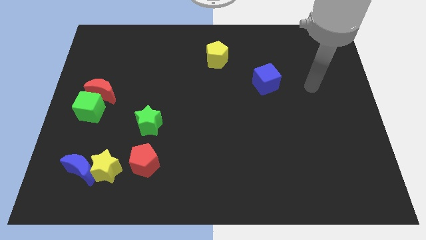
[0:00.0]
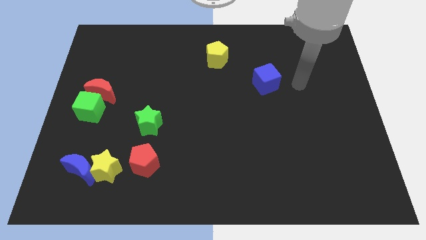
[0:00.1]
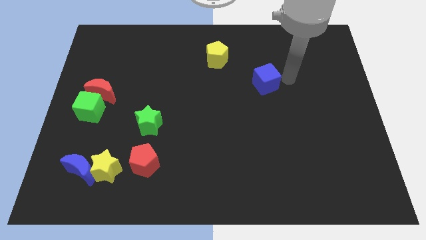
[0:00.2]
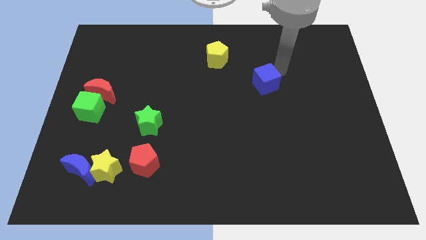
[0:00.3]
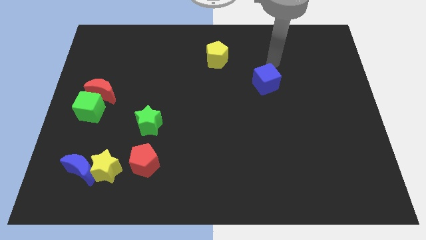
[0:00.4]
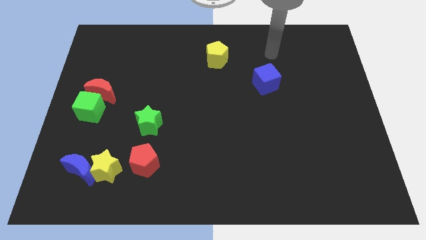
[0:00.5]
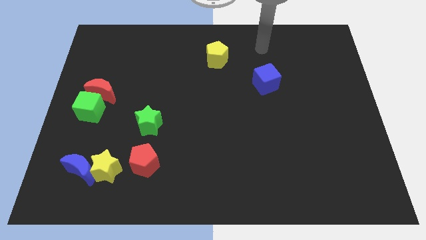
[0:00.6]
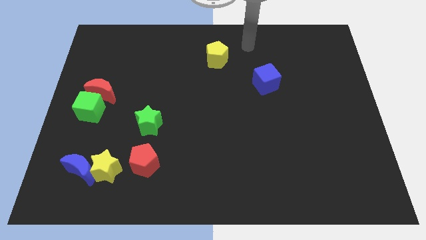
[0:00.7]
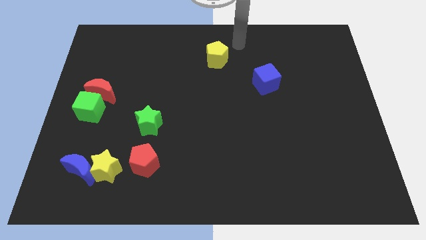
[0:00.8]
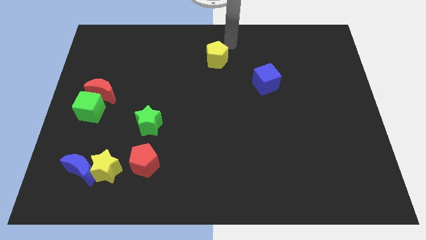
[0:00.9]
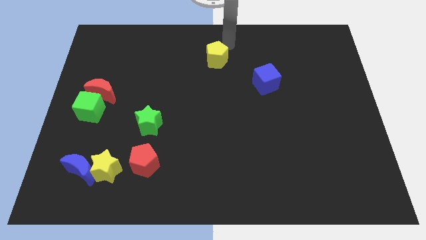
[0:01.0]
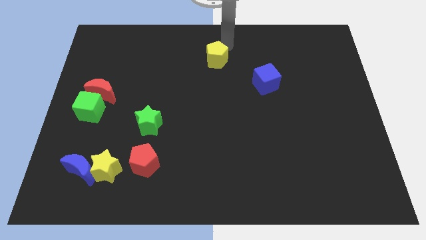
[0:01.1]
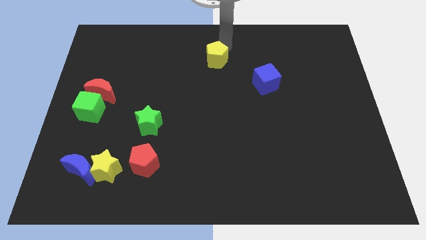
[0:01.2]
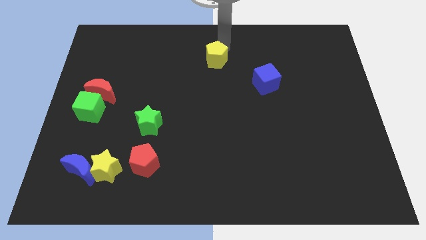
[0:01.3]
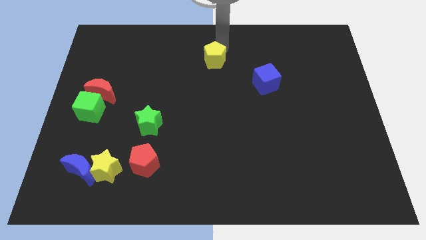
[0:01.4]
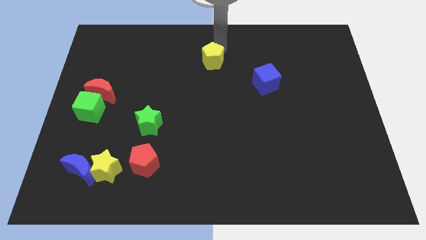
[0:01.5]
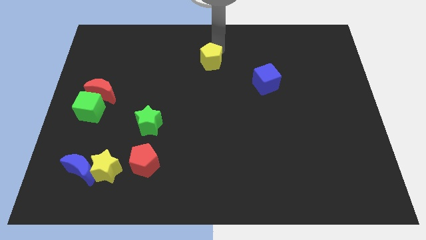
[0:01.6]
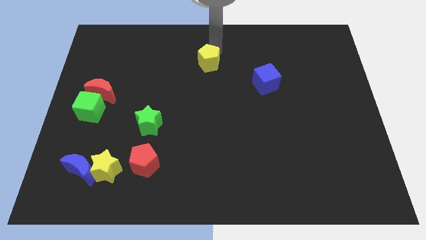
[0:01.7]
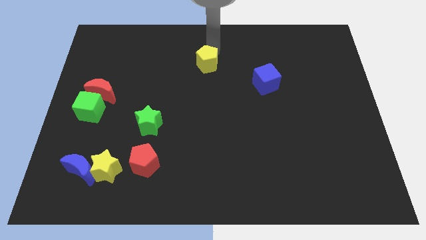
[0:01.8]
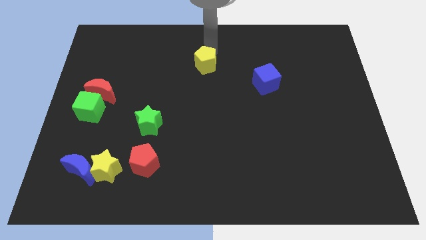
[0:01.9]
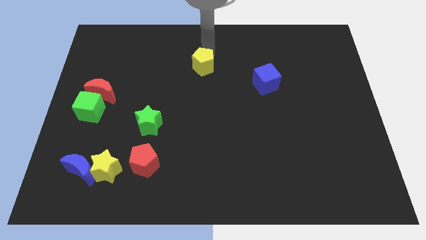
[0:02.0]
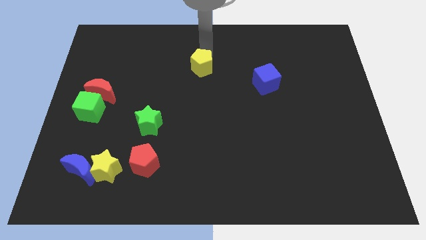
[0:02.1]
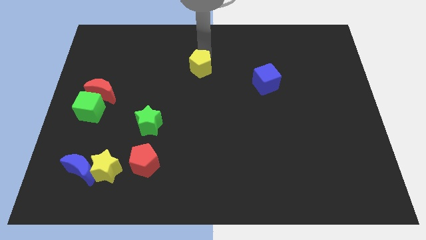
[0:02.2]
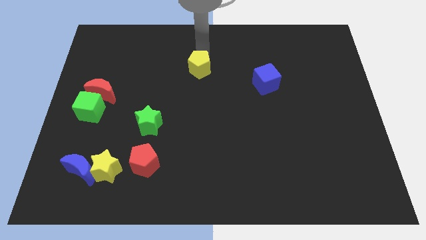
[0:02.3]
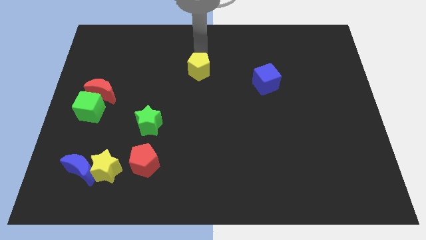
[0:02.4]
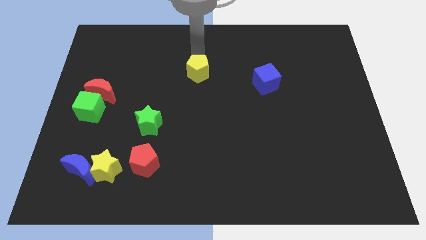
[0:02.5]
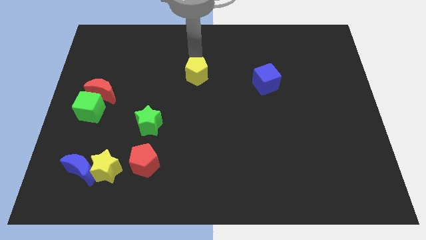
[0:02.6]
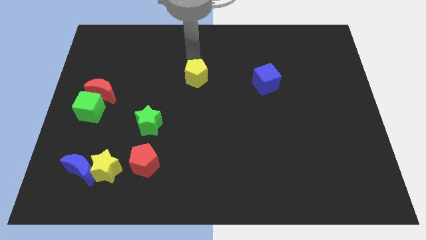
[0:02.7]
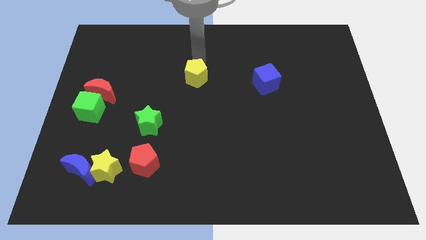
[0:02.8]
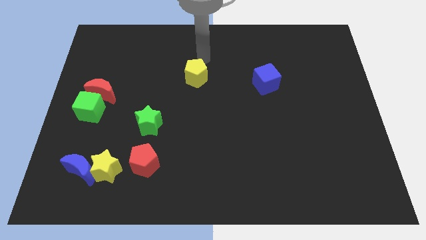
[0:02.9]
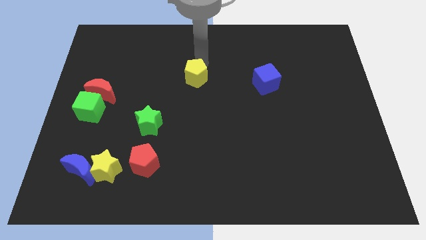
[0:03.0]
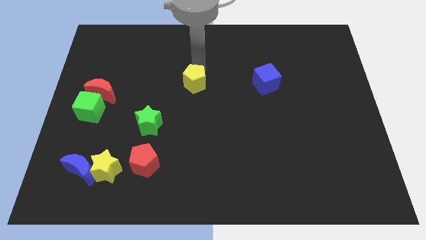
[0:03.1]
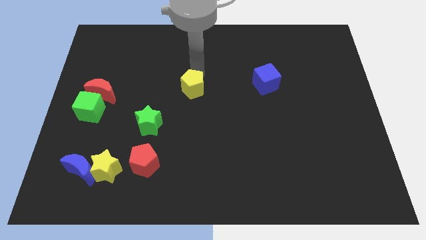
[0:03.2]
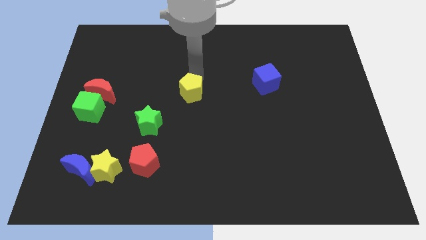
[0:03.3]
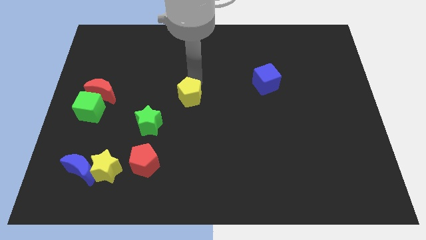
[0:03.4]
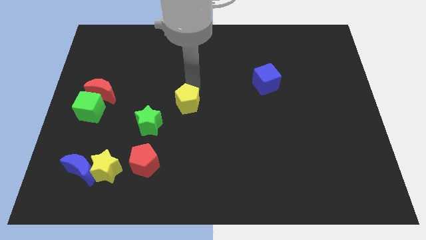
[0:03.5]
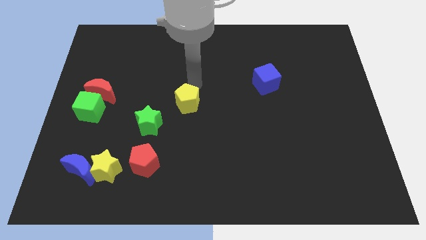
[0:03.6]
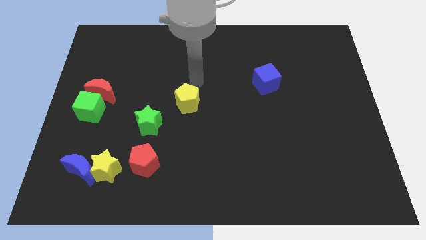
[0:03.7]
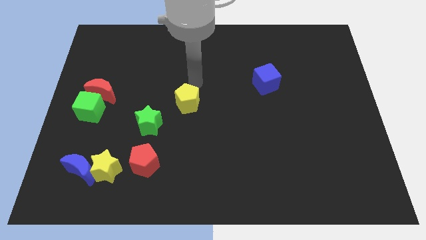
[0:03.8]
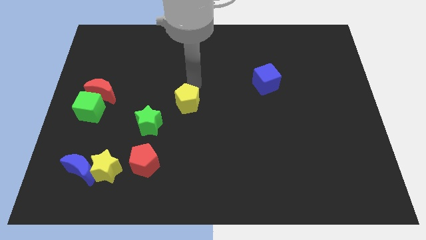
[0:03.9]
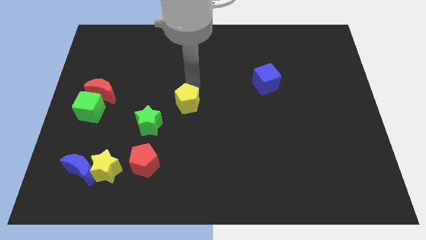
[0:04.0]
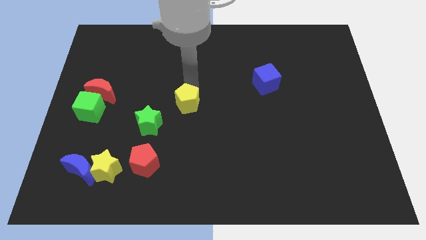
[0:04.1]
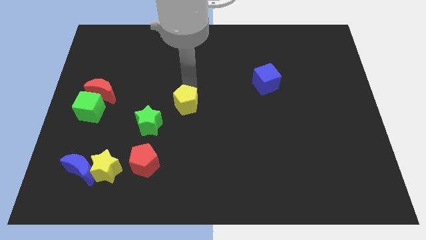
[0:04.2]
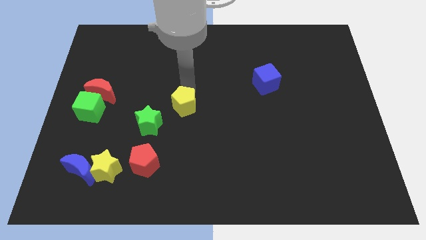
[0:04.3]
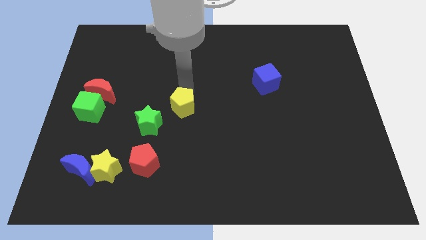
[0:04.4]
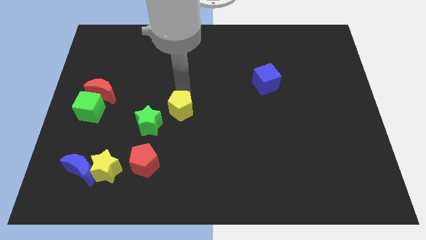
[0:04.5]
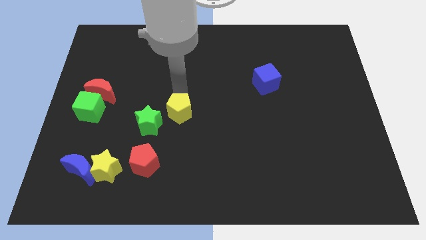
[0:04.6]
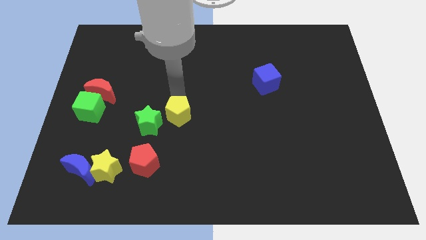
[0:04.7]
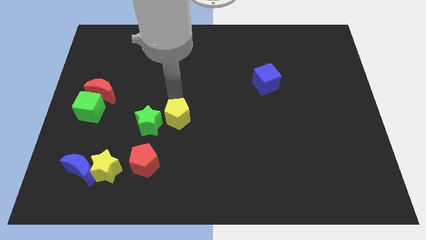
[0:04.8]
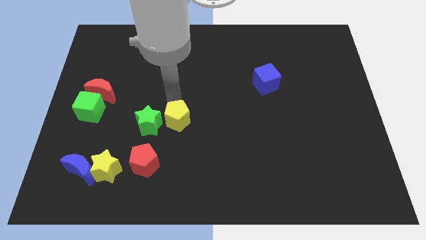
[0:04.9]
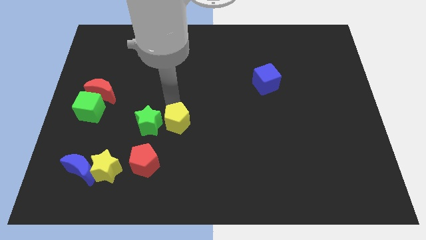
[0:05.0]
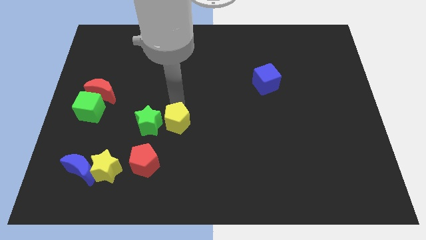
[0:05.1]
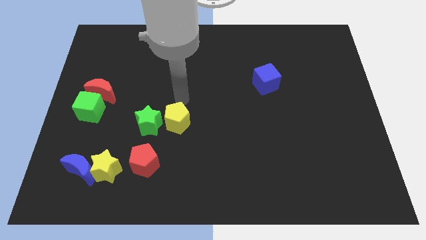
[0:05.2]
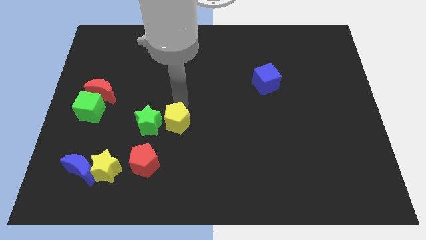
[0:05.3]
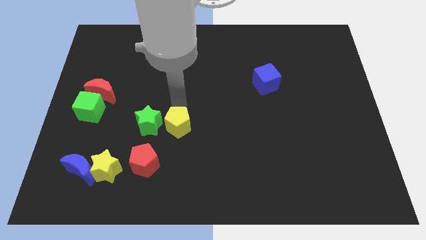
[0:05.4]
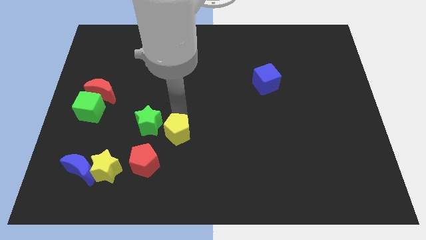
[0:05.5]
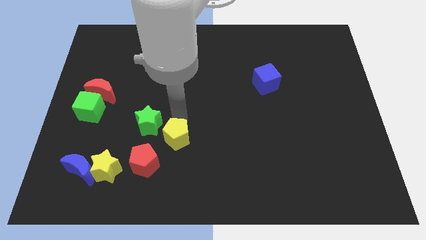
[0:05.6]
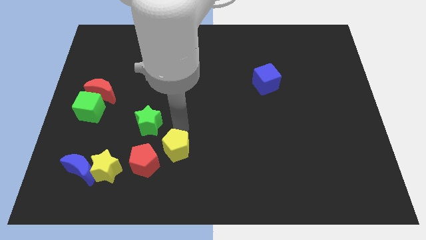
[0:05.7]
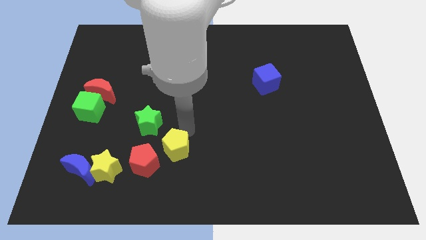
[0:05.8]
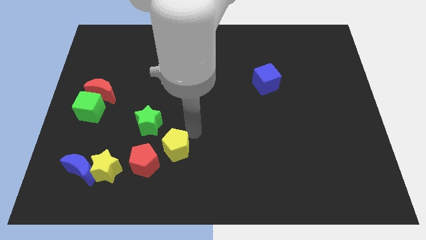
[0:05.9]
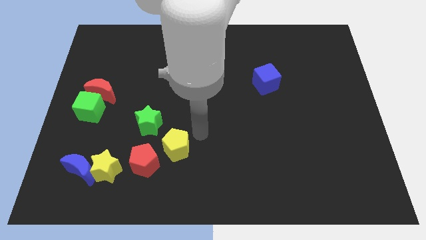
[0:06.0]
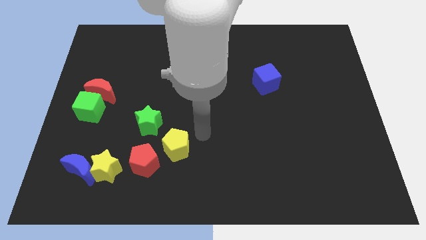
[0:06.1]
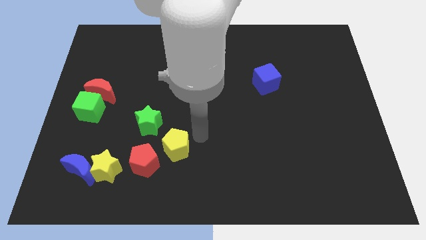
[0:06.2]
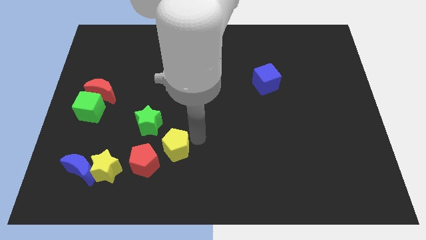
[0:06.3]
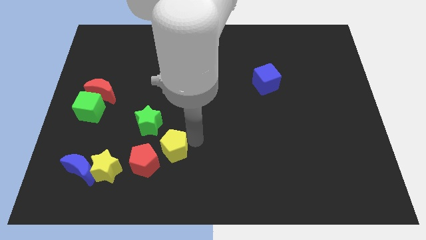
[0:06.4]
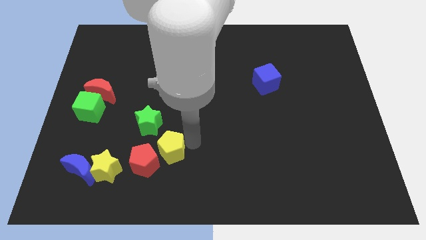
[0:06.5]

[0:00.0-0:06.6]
move the yellow pentagon to the red pentagon

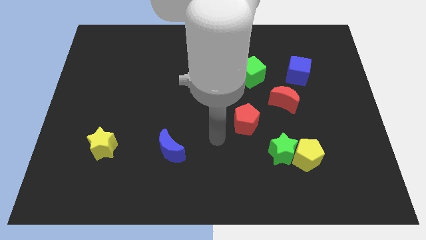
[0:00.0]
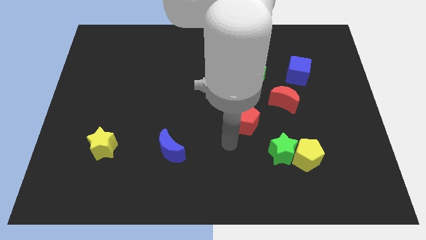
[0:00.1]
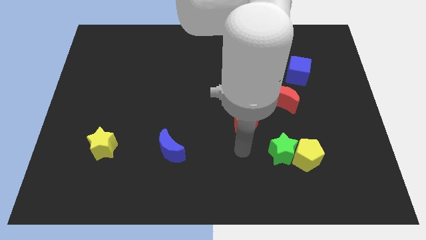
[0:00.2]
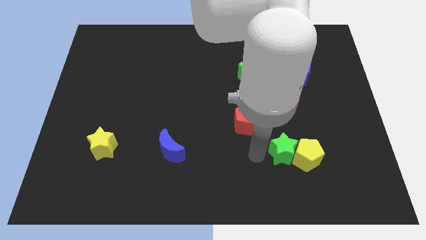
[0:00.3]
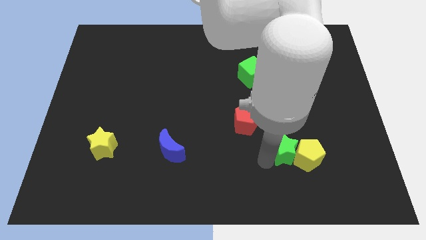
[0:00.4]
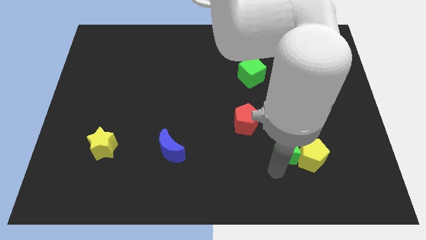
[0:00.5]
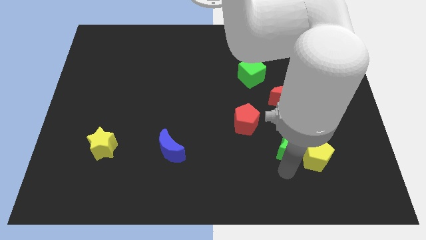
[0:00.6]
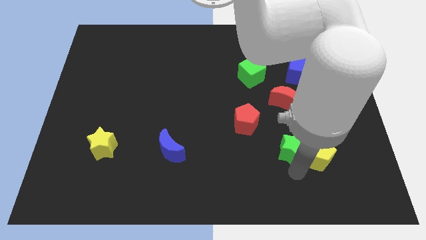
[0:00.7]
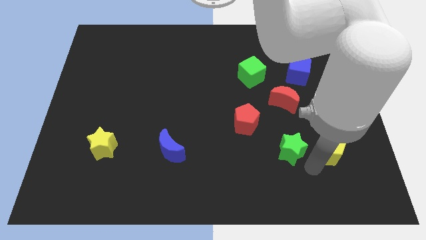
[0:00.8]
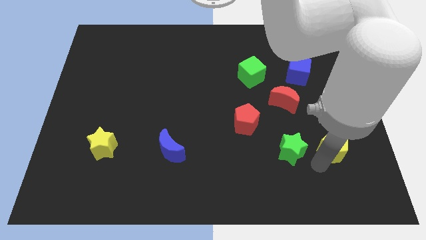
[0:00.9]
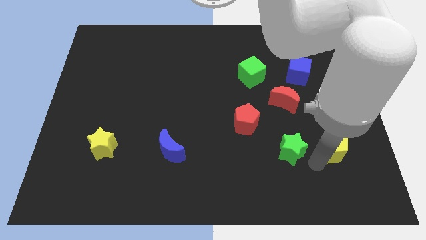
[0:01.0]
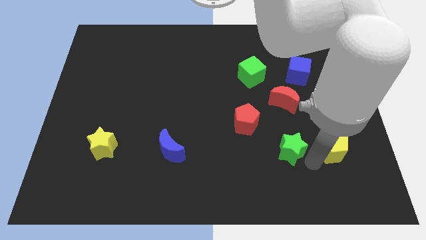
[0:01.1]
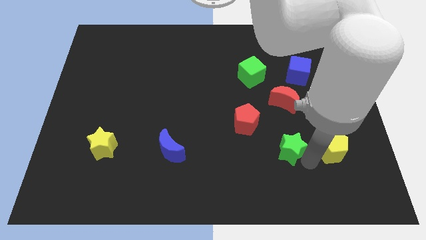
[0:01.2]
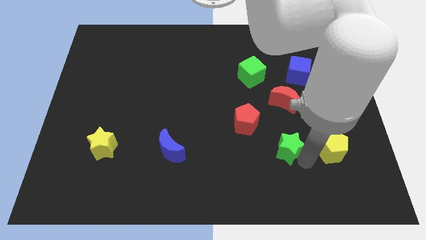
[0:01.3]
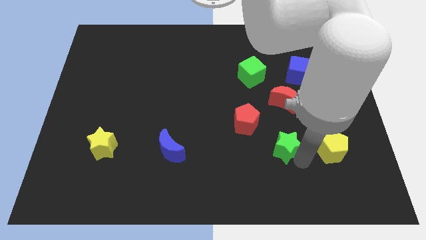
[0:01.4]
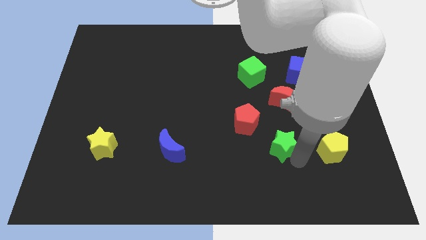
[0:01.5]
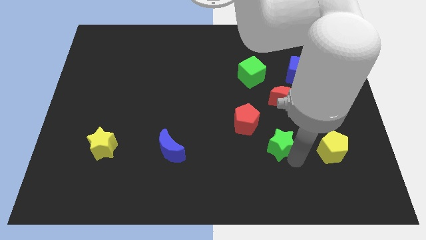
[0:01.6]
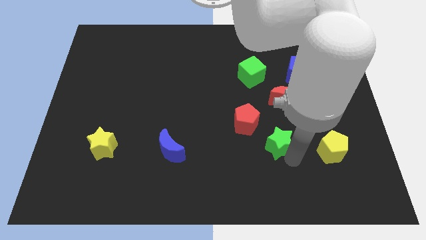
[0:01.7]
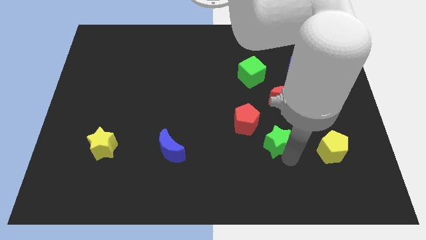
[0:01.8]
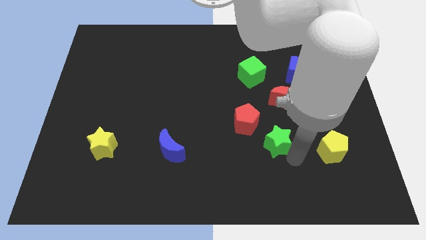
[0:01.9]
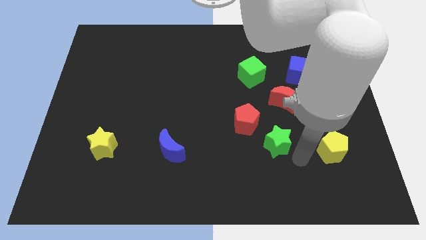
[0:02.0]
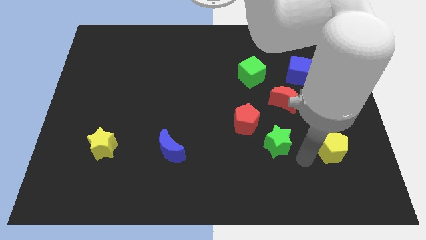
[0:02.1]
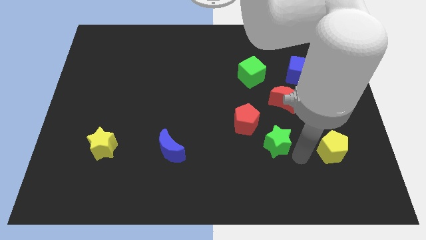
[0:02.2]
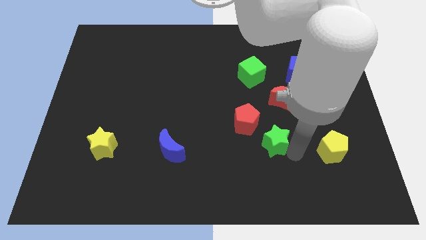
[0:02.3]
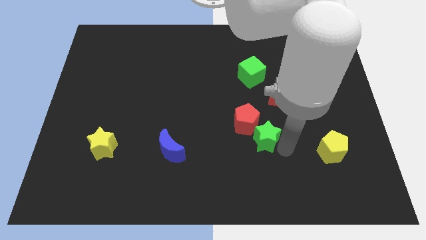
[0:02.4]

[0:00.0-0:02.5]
slide the green star towards the red pentagon
